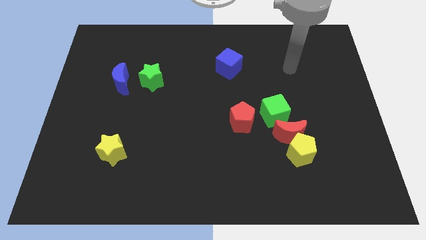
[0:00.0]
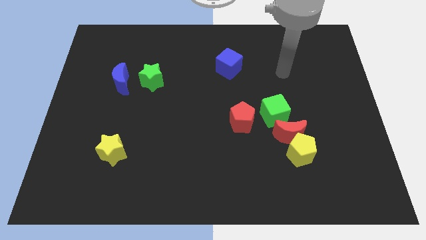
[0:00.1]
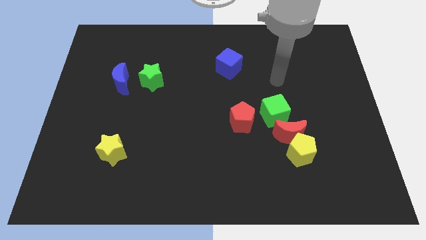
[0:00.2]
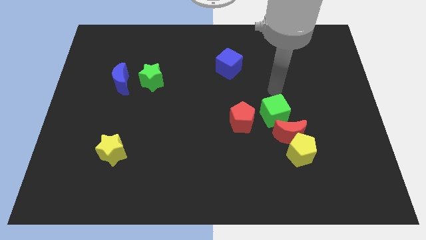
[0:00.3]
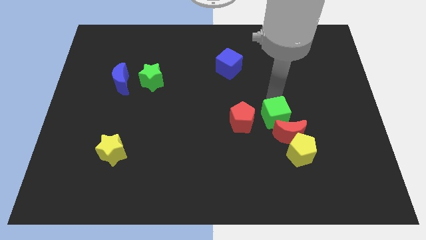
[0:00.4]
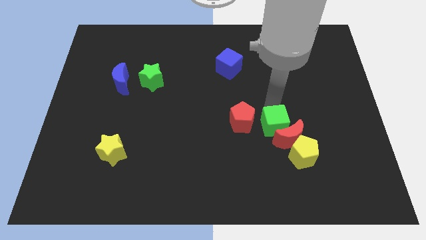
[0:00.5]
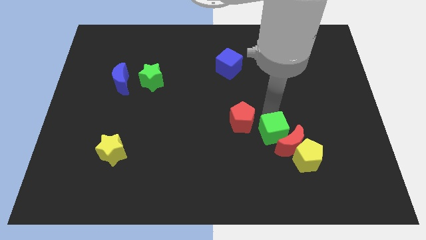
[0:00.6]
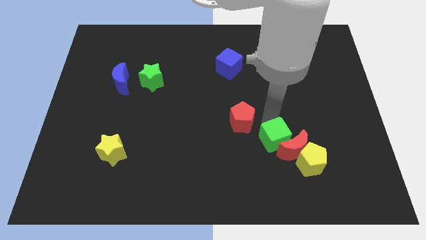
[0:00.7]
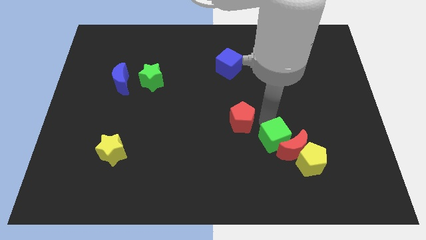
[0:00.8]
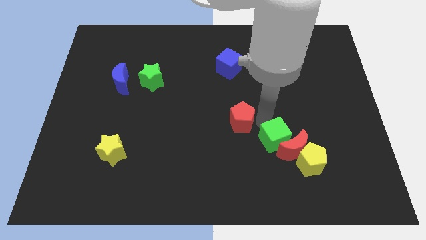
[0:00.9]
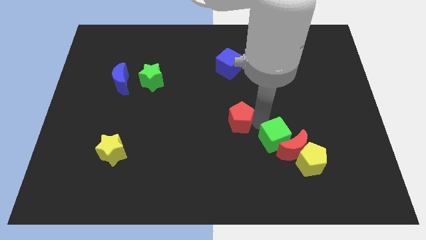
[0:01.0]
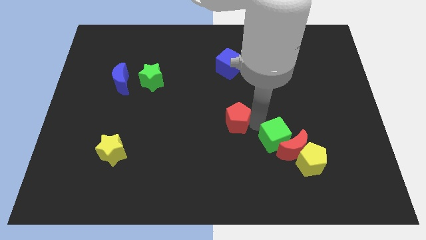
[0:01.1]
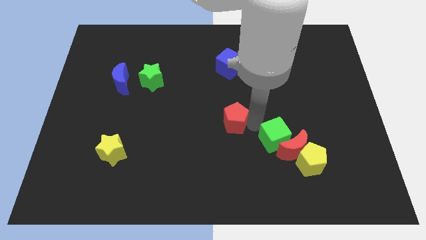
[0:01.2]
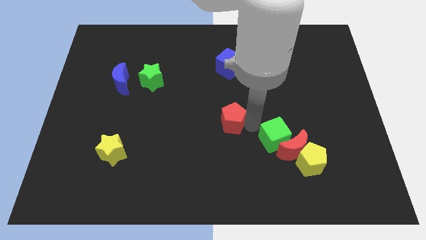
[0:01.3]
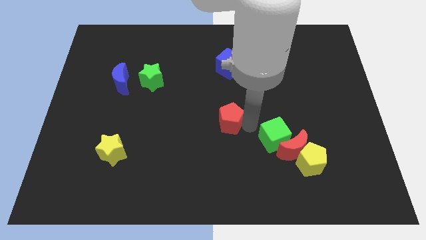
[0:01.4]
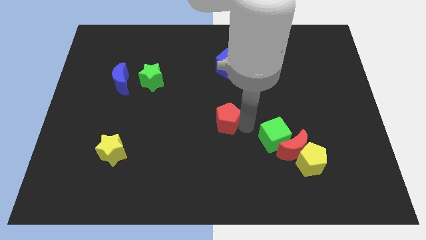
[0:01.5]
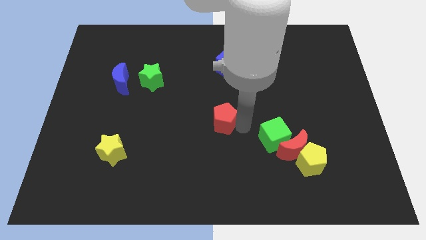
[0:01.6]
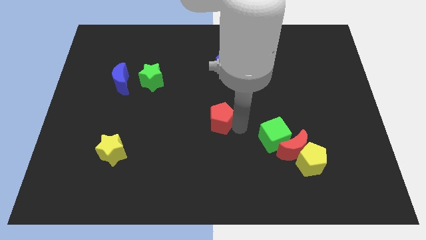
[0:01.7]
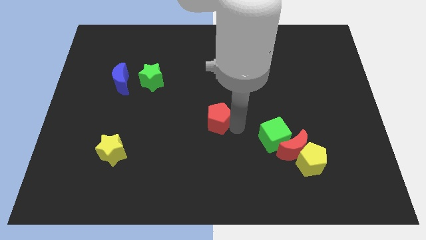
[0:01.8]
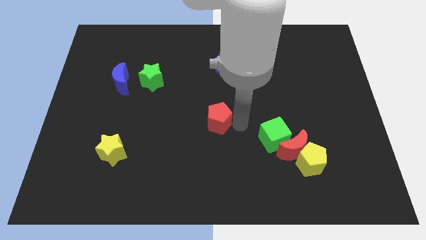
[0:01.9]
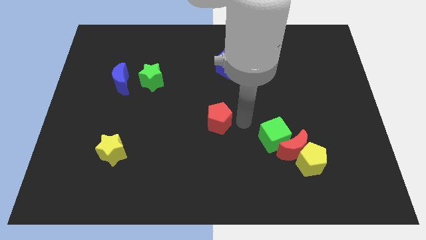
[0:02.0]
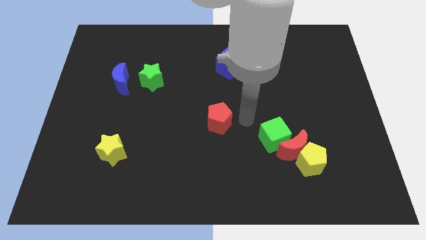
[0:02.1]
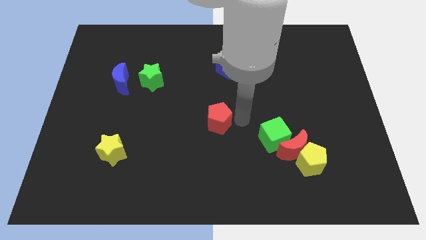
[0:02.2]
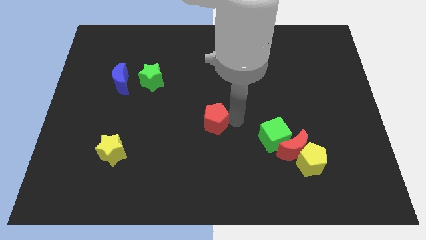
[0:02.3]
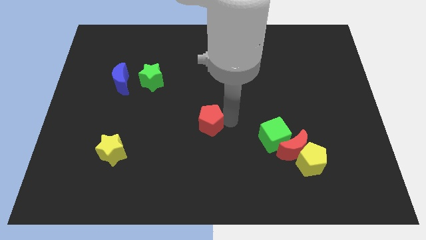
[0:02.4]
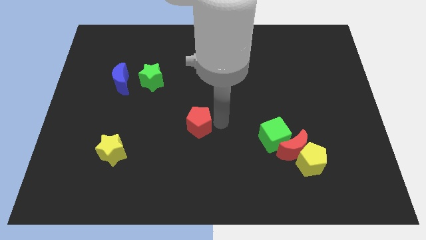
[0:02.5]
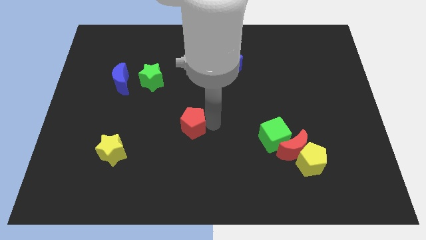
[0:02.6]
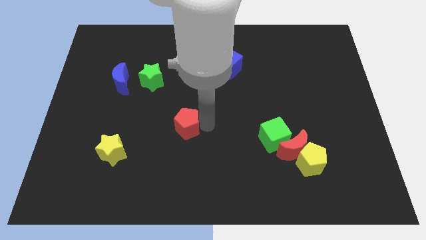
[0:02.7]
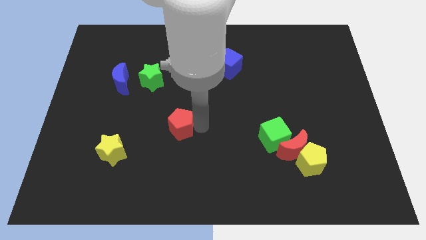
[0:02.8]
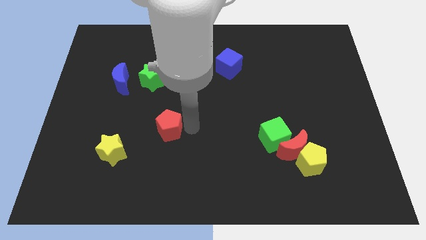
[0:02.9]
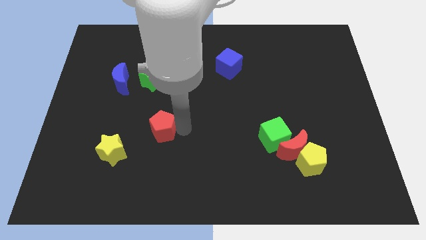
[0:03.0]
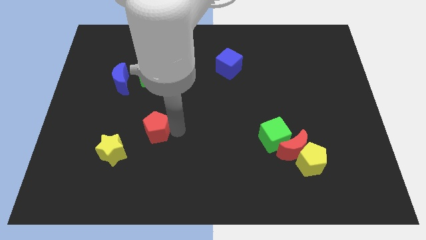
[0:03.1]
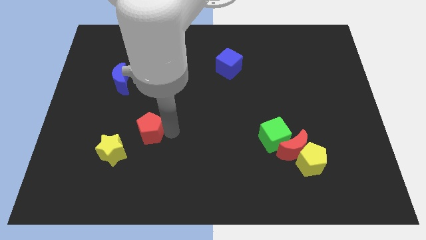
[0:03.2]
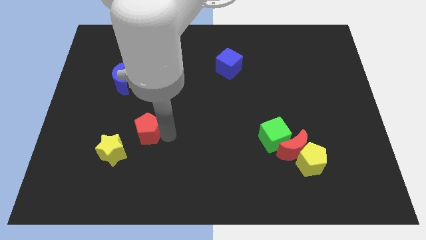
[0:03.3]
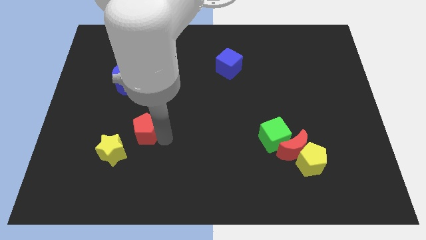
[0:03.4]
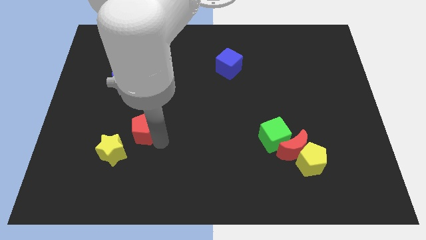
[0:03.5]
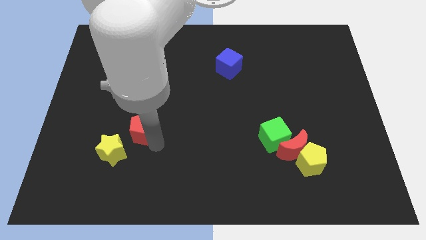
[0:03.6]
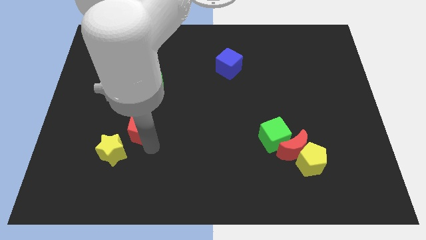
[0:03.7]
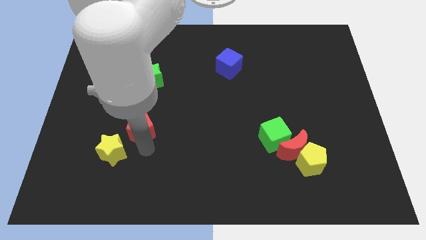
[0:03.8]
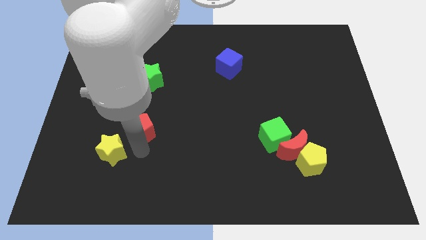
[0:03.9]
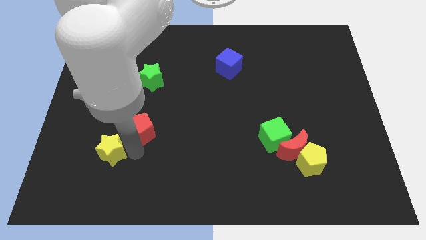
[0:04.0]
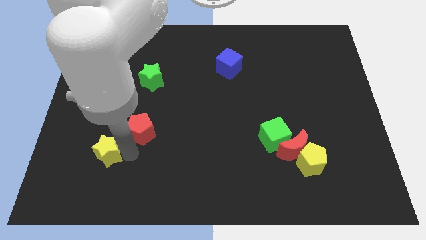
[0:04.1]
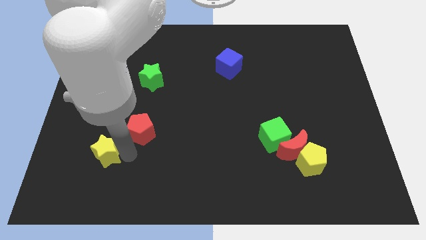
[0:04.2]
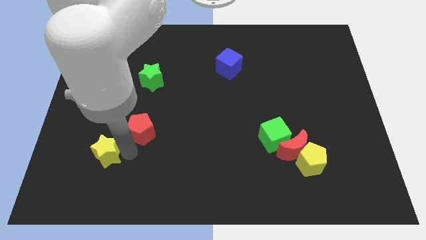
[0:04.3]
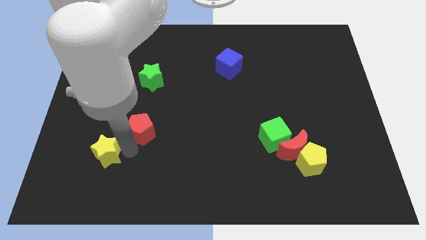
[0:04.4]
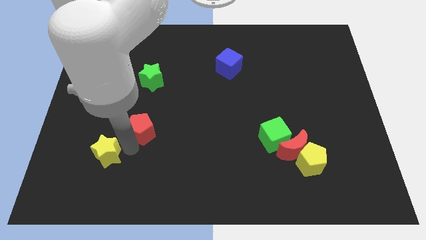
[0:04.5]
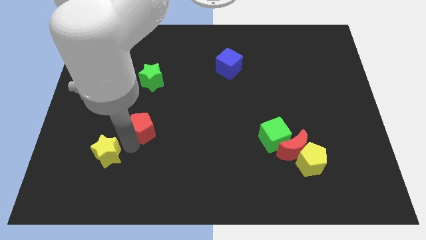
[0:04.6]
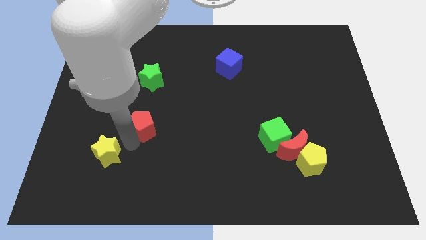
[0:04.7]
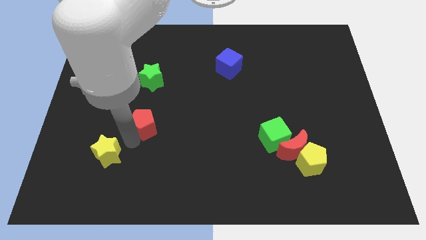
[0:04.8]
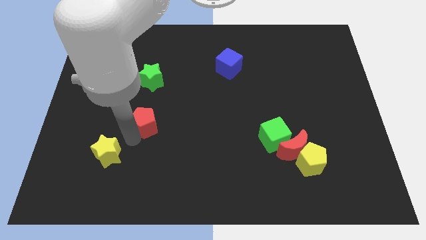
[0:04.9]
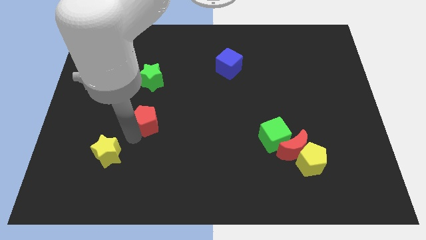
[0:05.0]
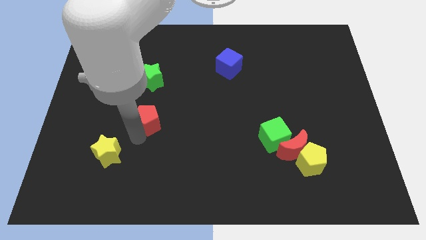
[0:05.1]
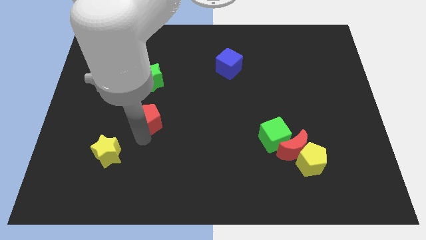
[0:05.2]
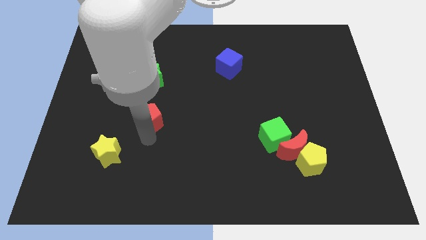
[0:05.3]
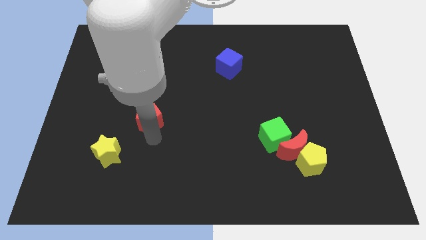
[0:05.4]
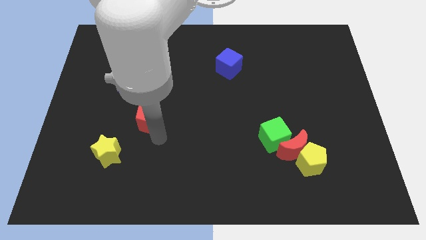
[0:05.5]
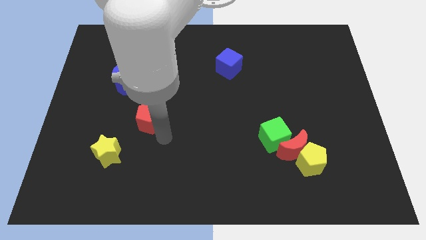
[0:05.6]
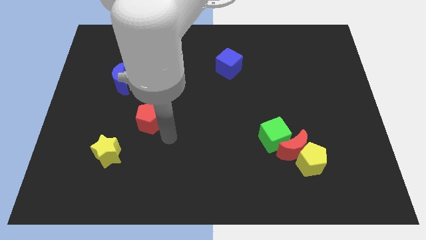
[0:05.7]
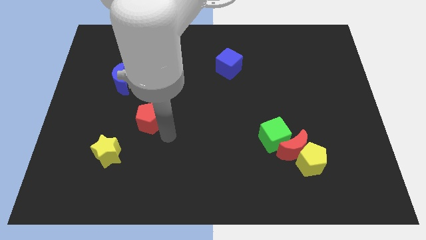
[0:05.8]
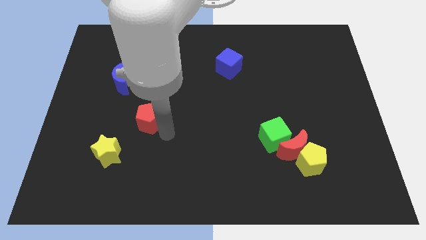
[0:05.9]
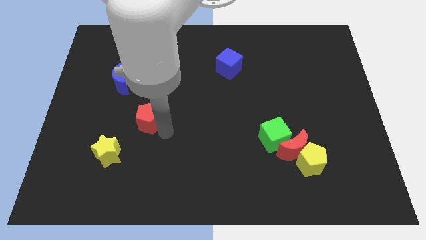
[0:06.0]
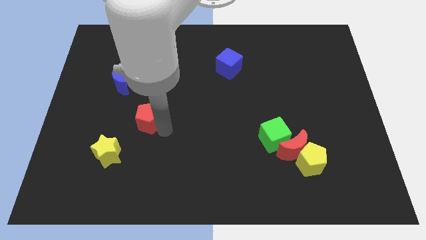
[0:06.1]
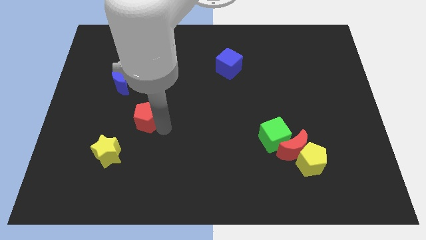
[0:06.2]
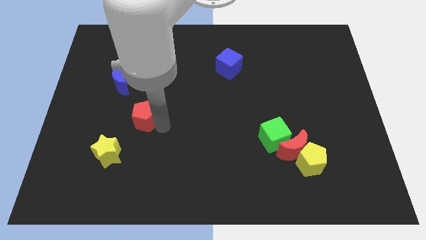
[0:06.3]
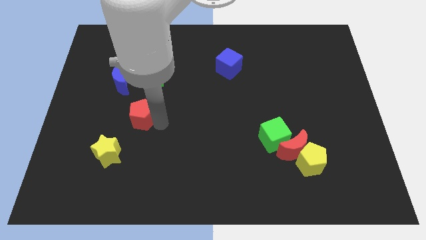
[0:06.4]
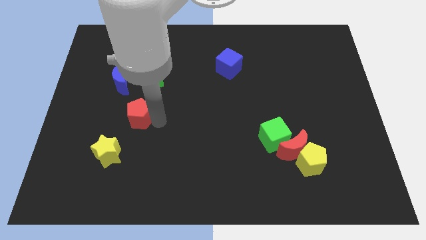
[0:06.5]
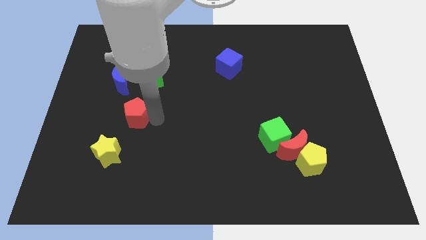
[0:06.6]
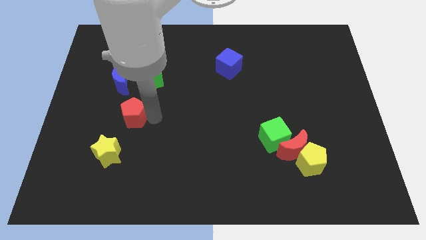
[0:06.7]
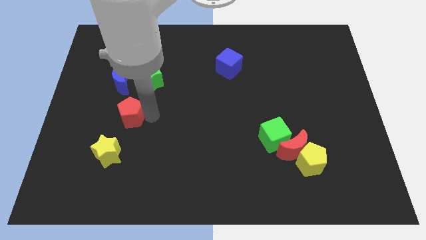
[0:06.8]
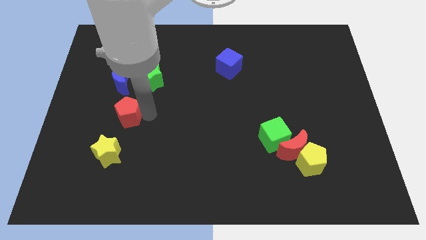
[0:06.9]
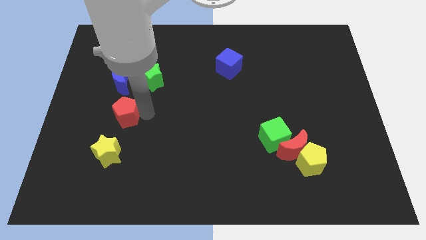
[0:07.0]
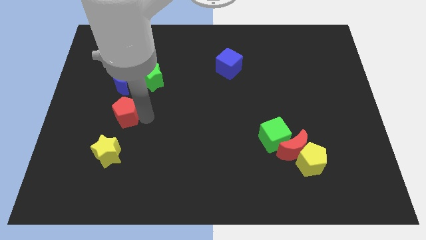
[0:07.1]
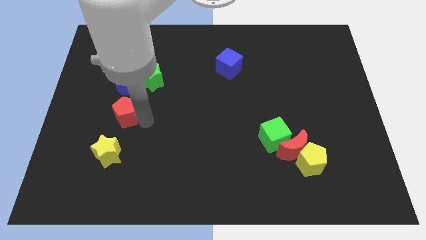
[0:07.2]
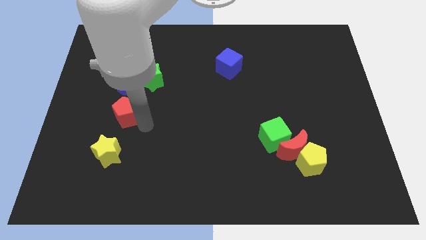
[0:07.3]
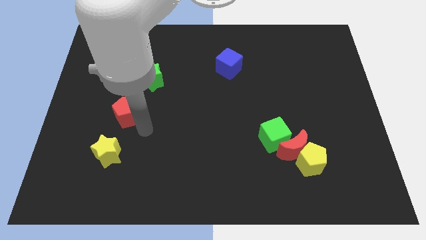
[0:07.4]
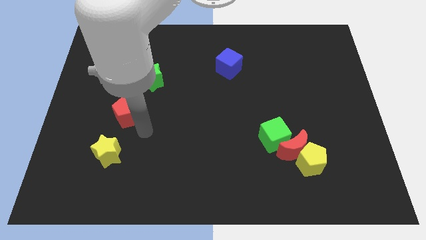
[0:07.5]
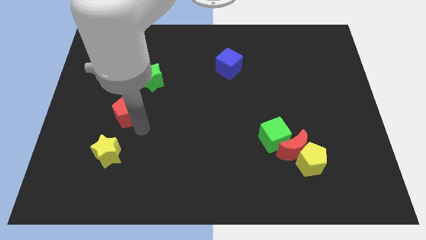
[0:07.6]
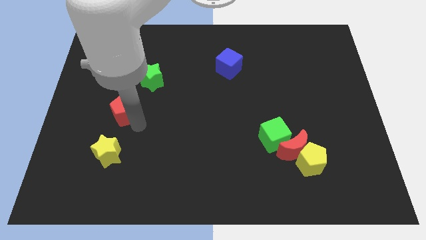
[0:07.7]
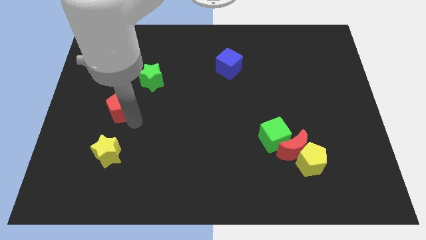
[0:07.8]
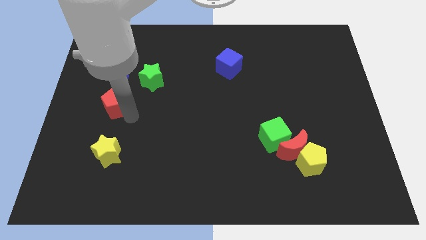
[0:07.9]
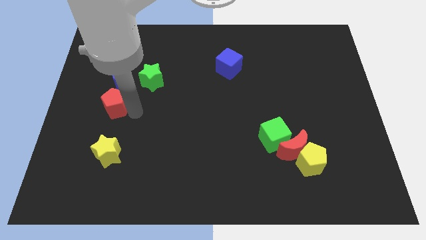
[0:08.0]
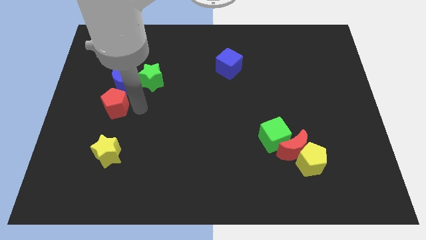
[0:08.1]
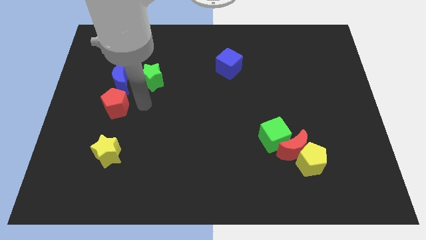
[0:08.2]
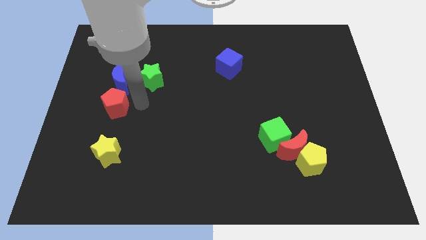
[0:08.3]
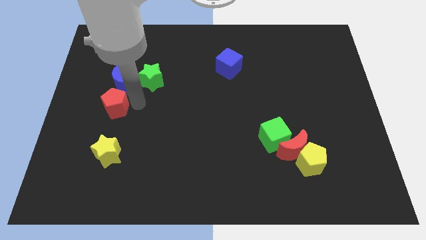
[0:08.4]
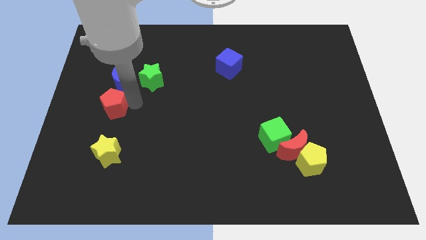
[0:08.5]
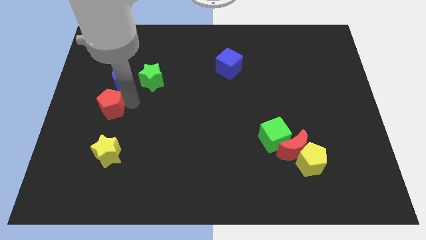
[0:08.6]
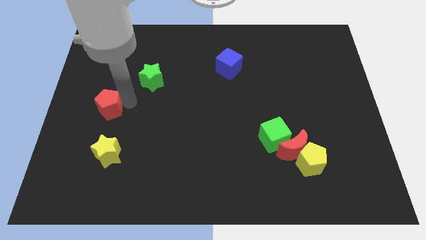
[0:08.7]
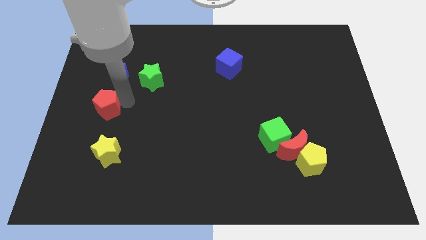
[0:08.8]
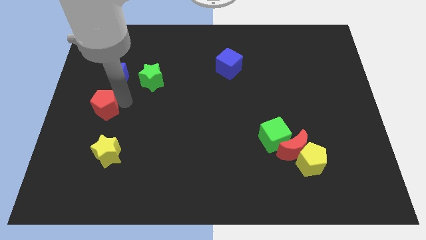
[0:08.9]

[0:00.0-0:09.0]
put the red pentagon to the left side
